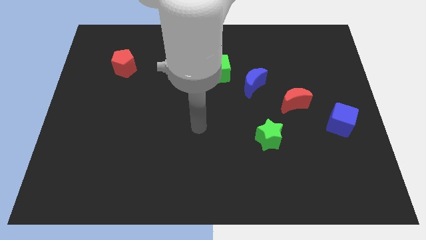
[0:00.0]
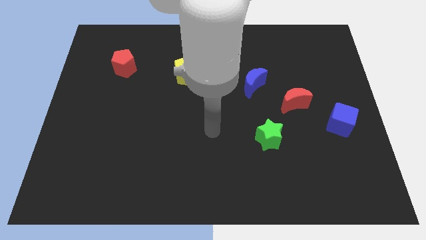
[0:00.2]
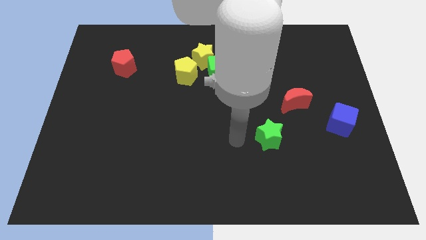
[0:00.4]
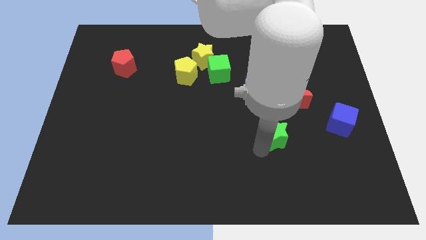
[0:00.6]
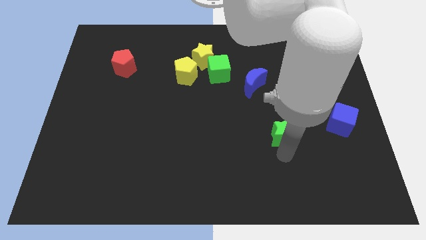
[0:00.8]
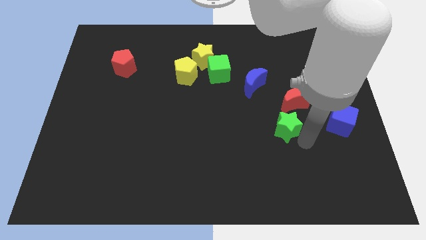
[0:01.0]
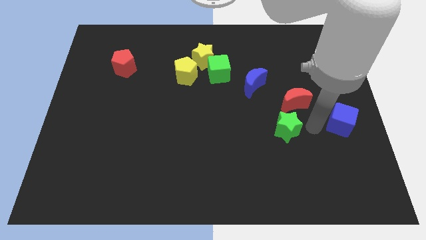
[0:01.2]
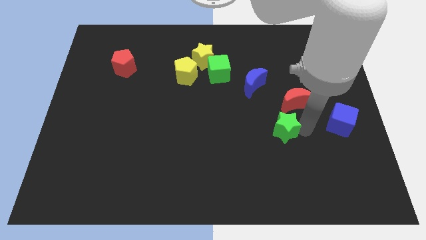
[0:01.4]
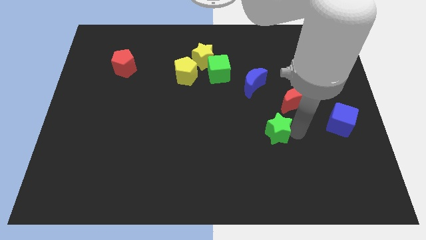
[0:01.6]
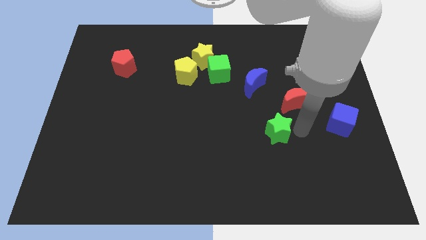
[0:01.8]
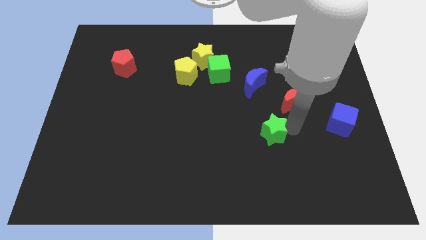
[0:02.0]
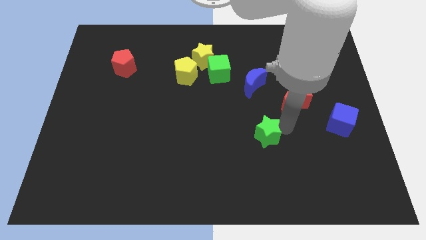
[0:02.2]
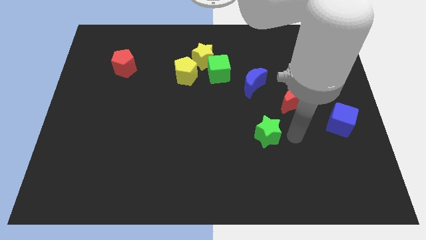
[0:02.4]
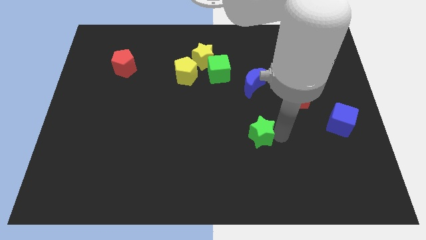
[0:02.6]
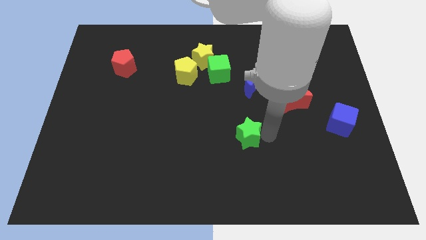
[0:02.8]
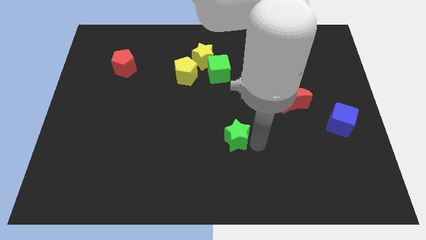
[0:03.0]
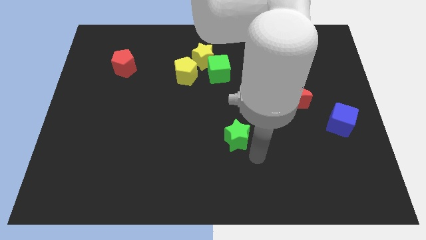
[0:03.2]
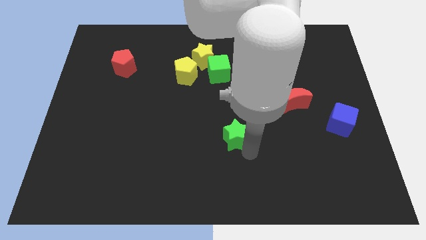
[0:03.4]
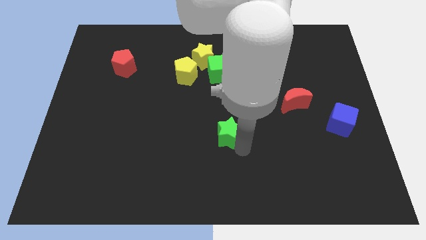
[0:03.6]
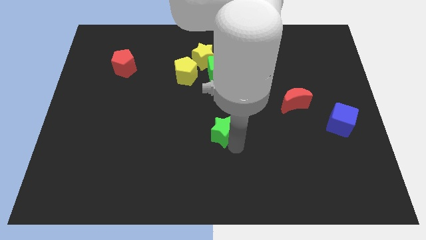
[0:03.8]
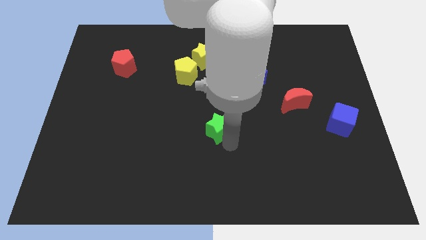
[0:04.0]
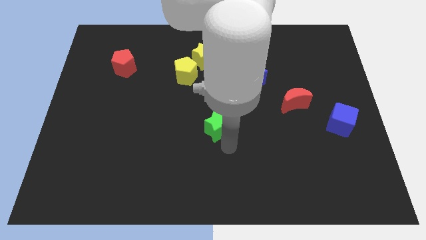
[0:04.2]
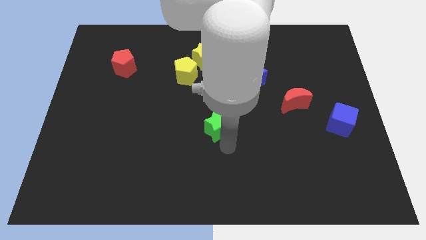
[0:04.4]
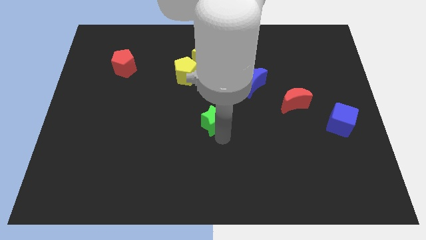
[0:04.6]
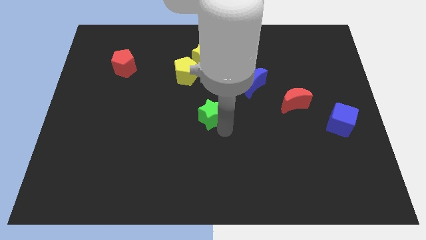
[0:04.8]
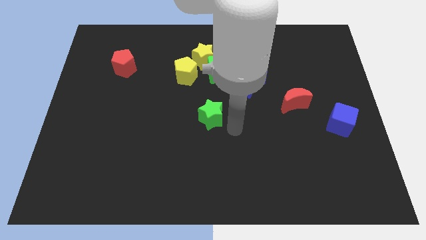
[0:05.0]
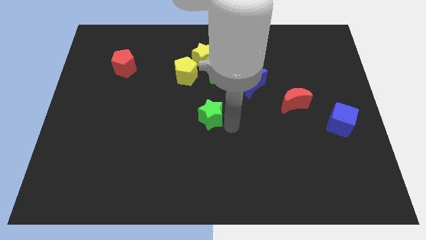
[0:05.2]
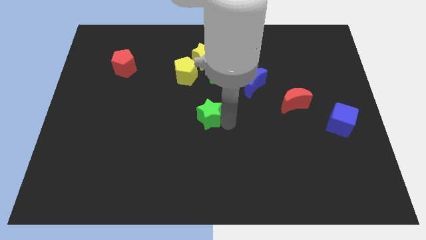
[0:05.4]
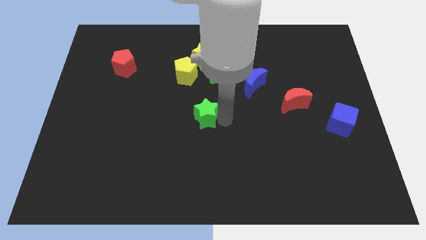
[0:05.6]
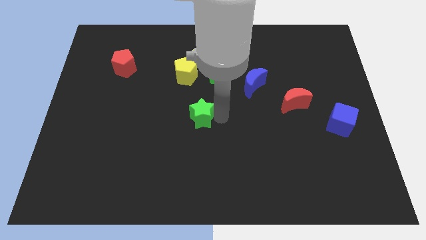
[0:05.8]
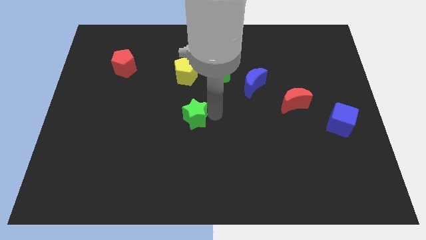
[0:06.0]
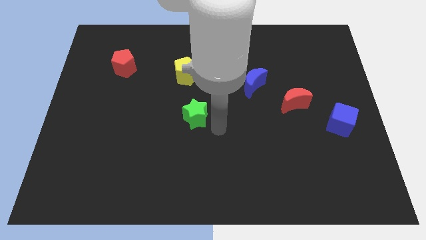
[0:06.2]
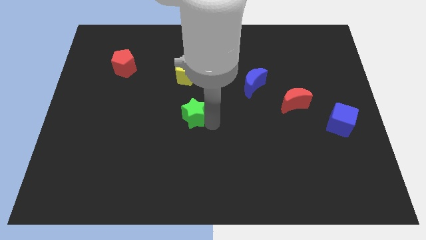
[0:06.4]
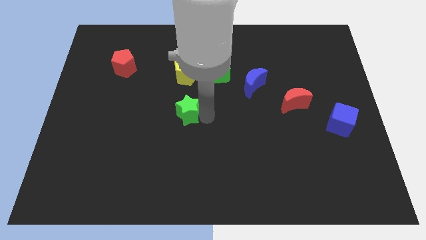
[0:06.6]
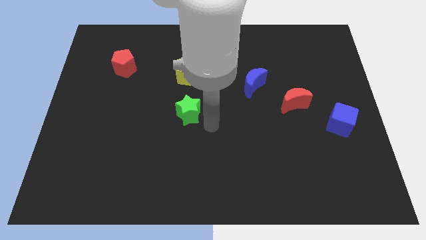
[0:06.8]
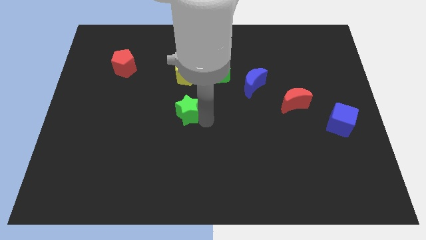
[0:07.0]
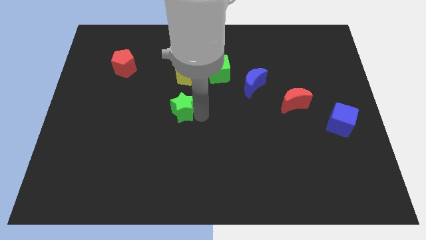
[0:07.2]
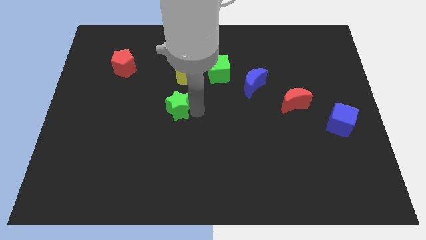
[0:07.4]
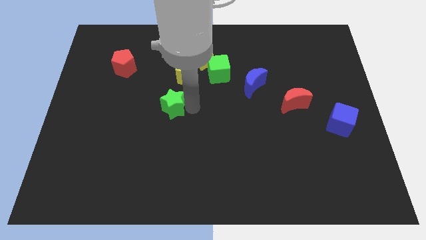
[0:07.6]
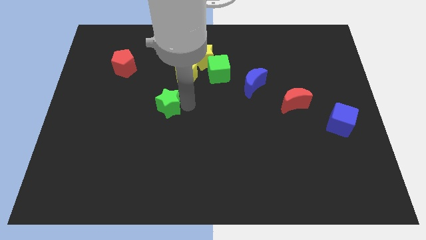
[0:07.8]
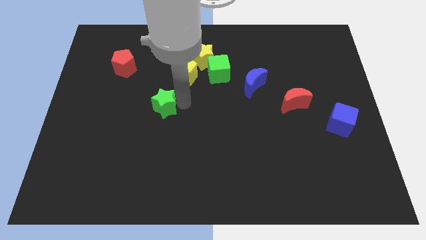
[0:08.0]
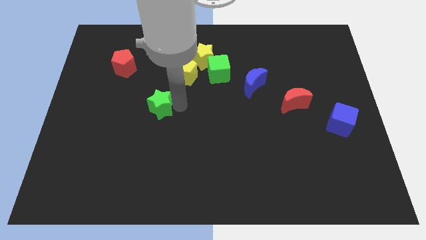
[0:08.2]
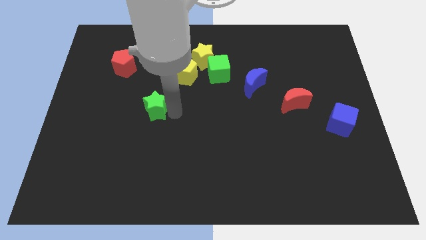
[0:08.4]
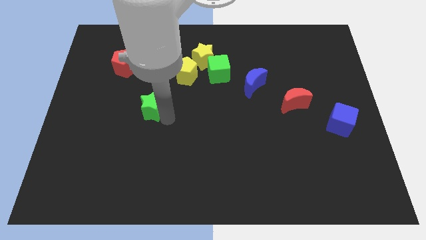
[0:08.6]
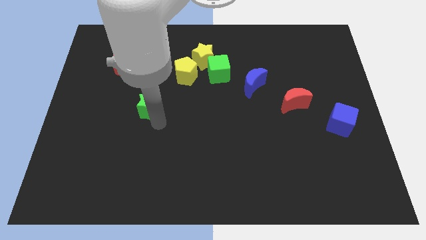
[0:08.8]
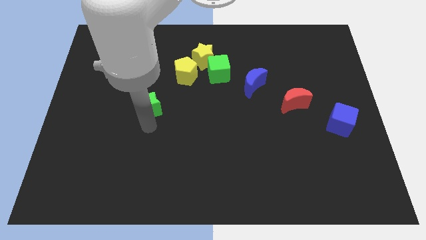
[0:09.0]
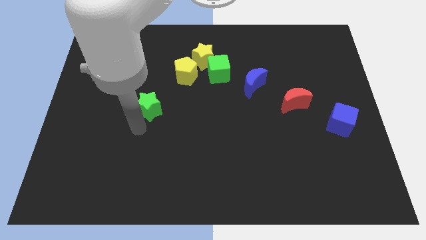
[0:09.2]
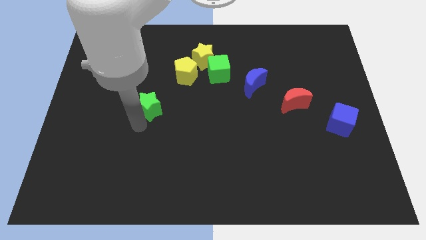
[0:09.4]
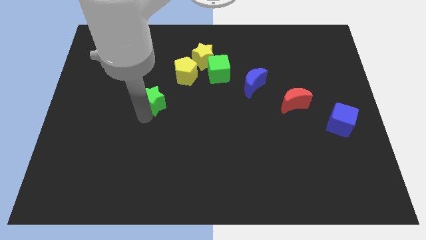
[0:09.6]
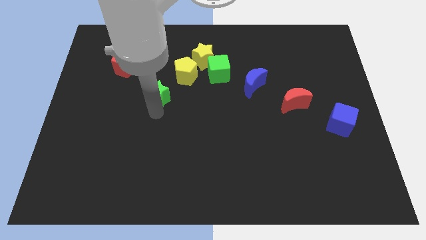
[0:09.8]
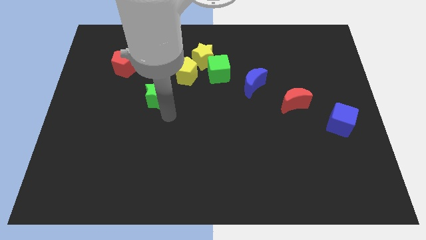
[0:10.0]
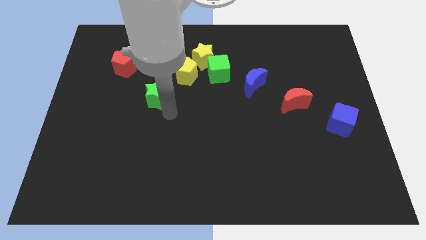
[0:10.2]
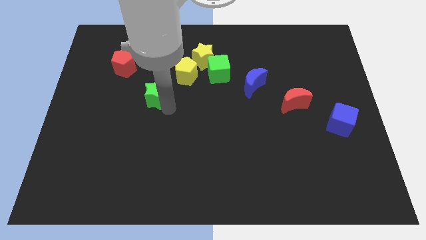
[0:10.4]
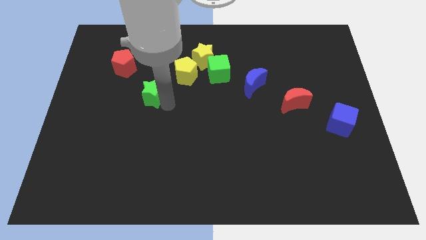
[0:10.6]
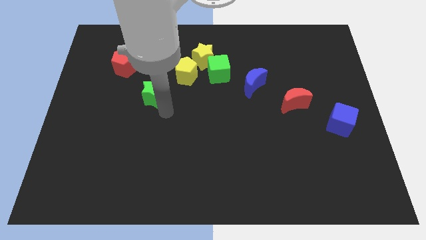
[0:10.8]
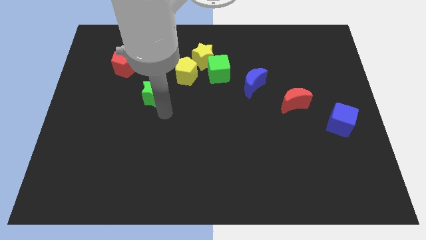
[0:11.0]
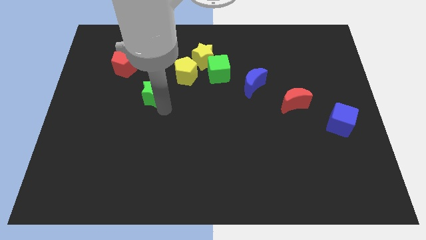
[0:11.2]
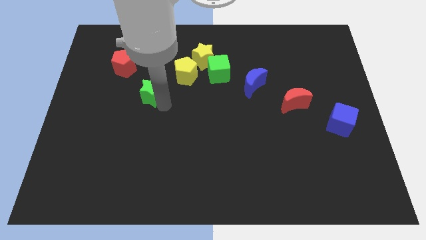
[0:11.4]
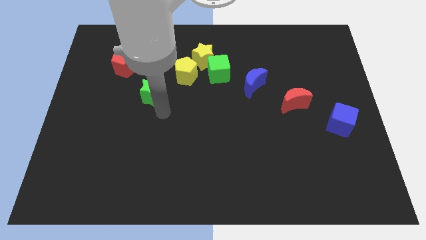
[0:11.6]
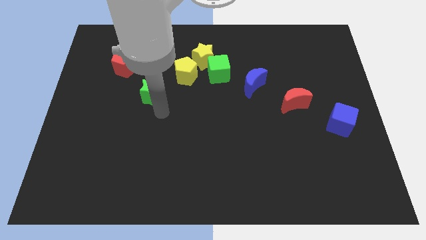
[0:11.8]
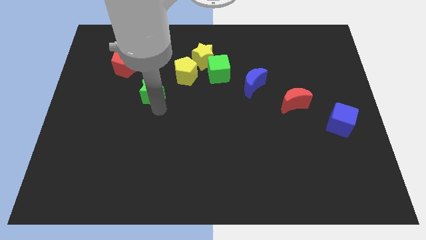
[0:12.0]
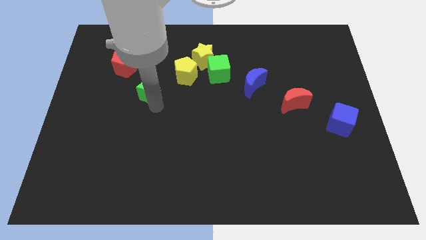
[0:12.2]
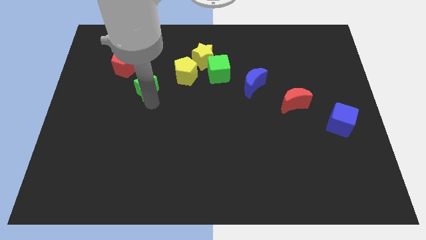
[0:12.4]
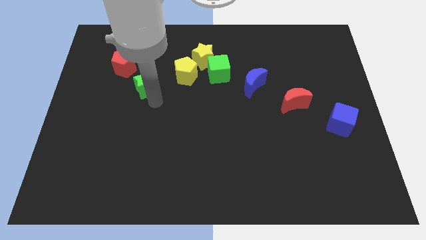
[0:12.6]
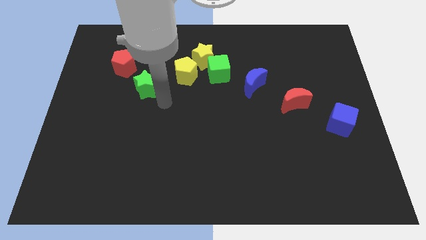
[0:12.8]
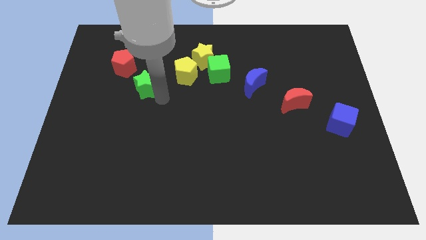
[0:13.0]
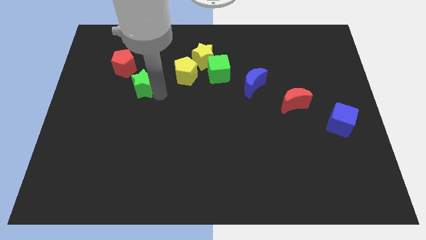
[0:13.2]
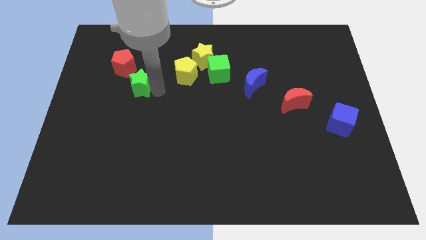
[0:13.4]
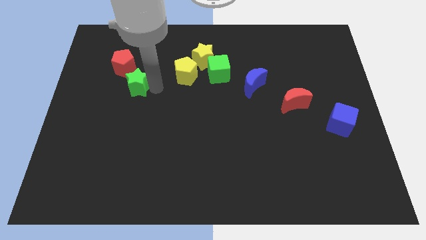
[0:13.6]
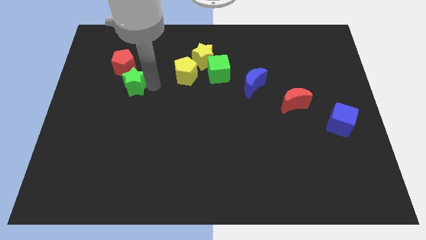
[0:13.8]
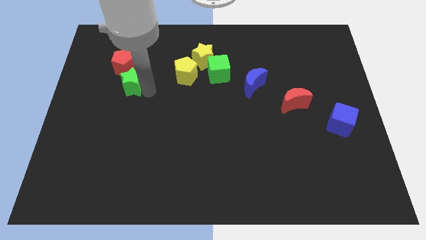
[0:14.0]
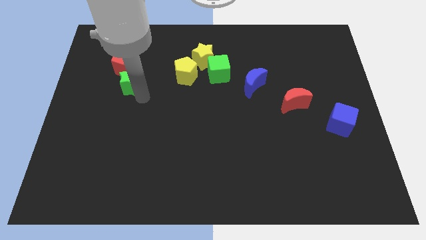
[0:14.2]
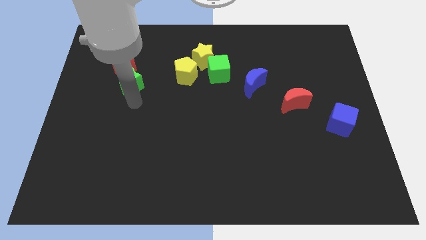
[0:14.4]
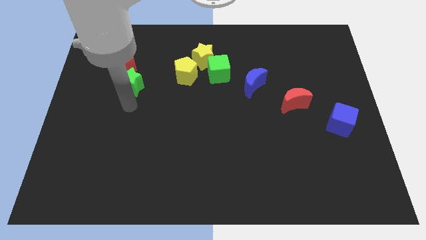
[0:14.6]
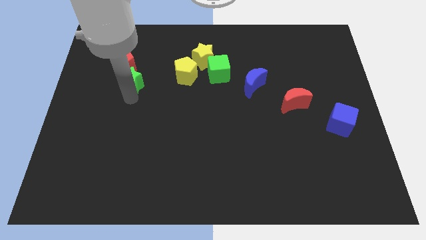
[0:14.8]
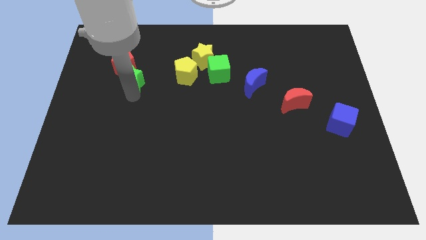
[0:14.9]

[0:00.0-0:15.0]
move the green star next to the red pentagon
